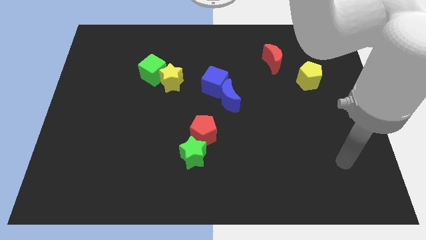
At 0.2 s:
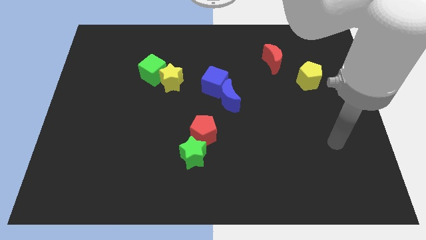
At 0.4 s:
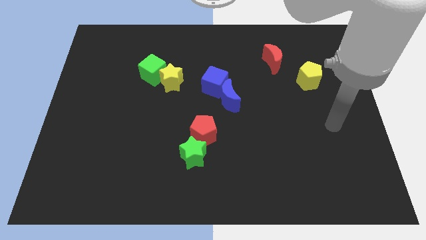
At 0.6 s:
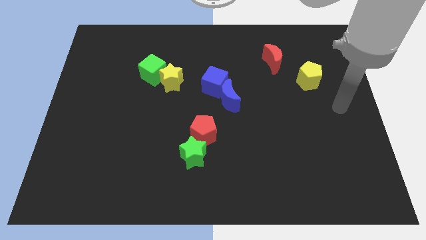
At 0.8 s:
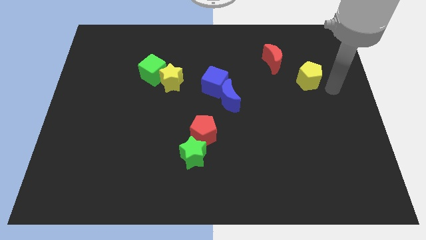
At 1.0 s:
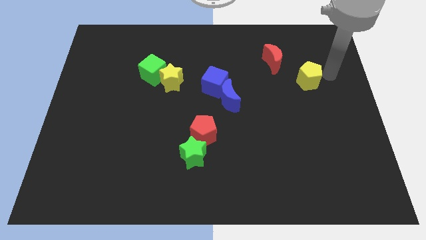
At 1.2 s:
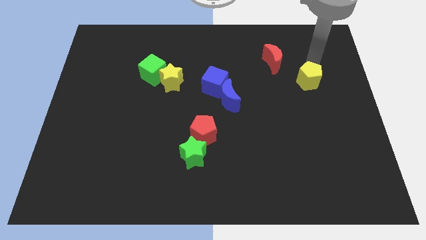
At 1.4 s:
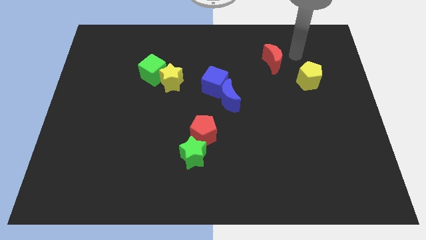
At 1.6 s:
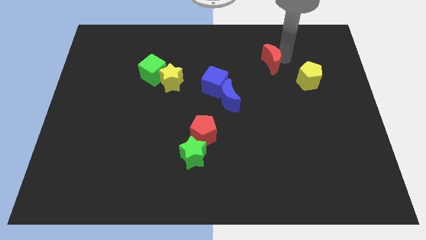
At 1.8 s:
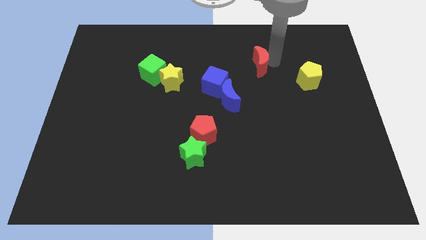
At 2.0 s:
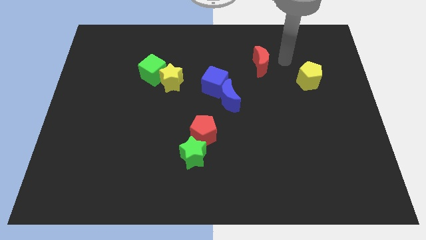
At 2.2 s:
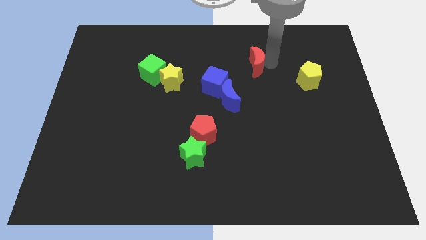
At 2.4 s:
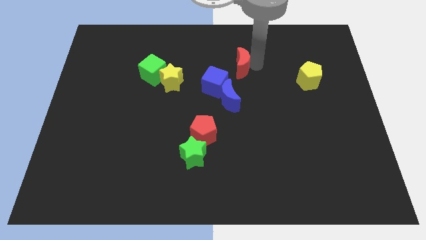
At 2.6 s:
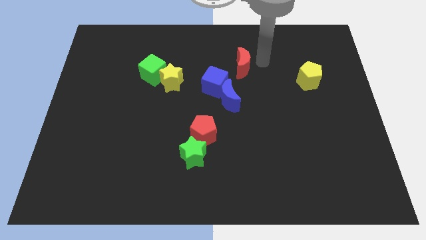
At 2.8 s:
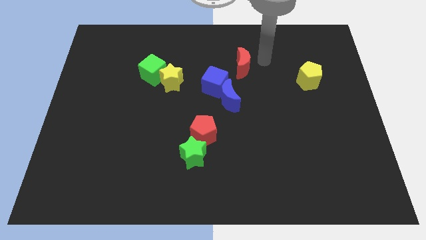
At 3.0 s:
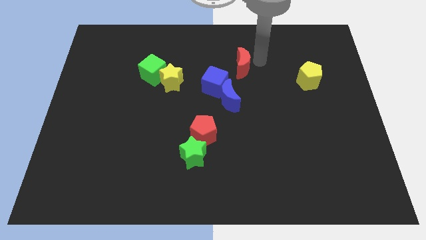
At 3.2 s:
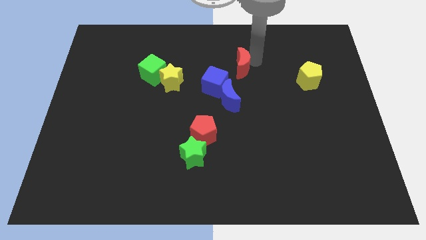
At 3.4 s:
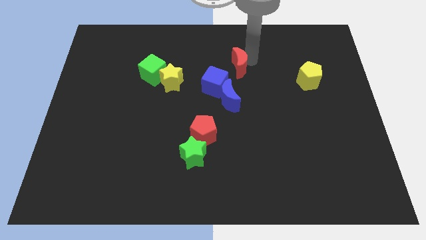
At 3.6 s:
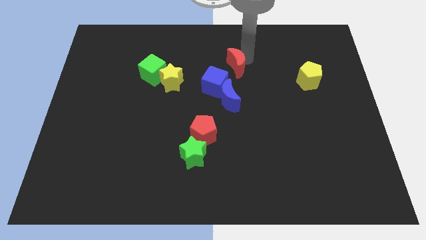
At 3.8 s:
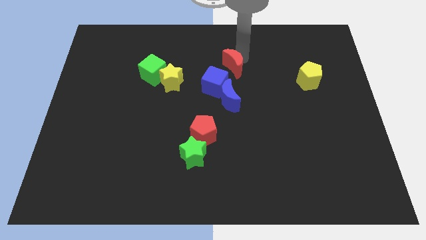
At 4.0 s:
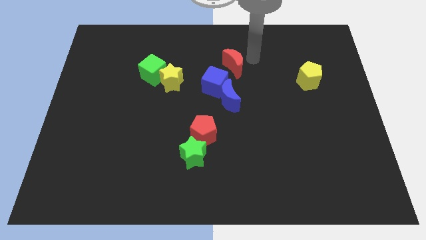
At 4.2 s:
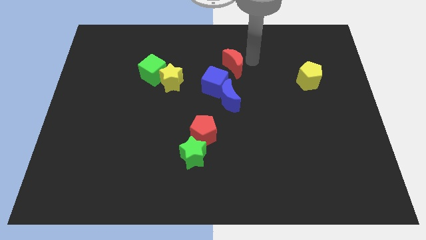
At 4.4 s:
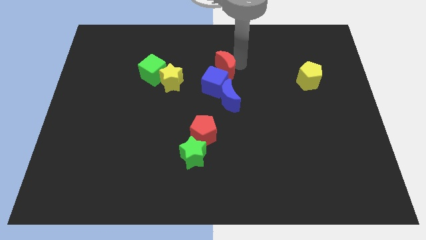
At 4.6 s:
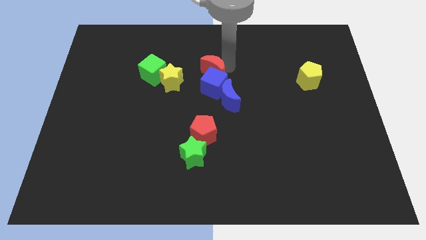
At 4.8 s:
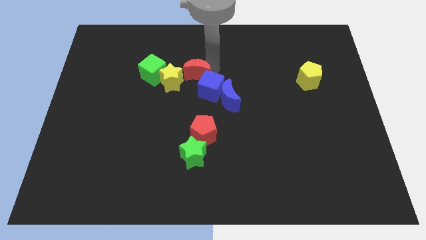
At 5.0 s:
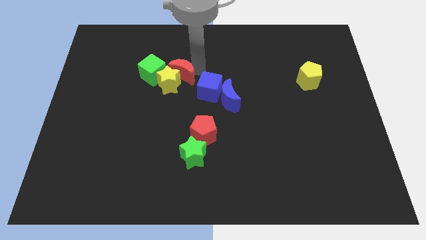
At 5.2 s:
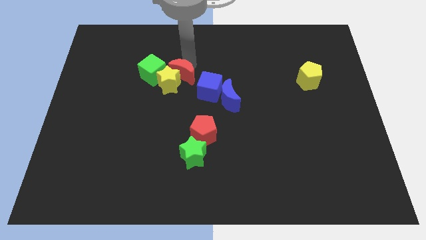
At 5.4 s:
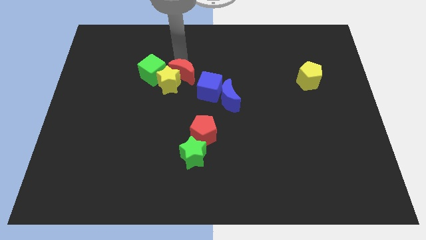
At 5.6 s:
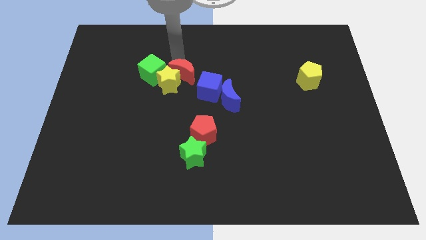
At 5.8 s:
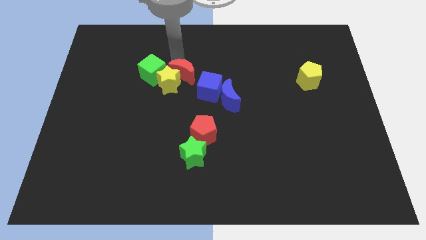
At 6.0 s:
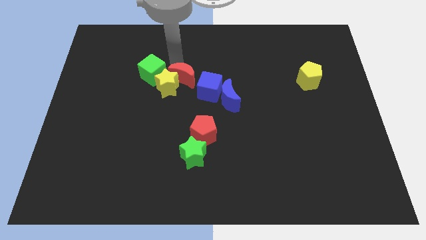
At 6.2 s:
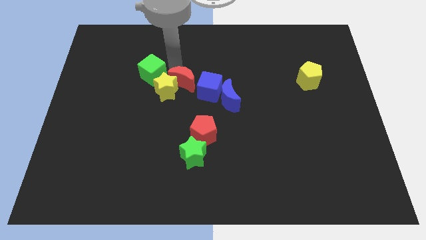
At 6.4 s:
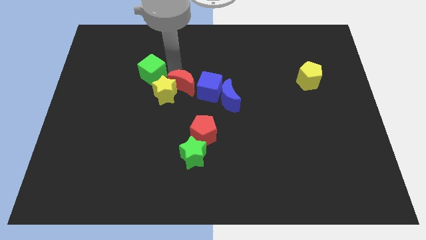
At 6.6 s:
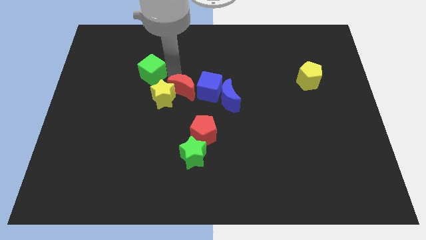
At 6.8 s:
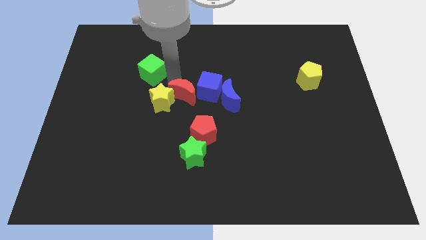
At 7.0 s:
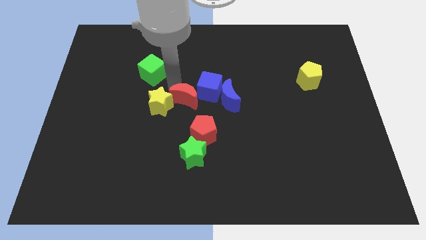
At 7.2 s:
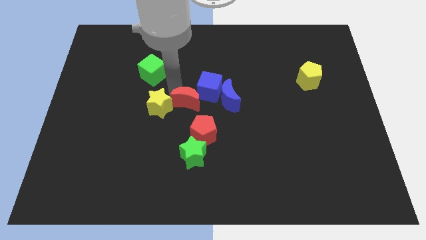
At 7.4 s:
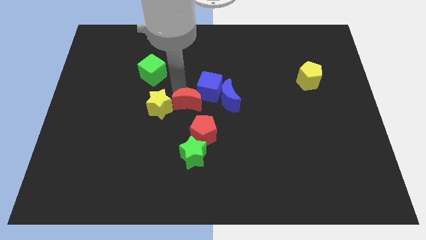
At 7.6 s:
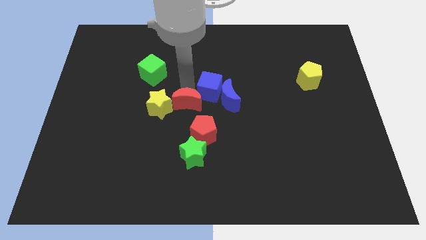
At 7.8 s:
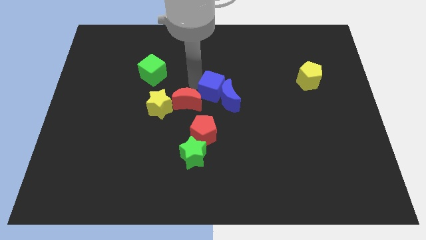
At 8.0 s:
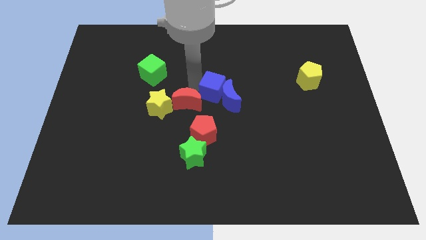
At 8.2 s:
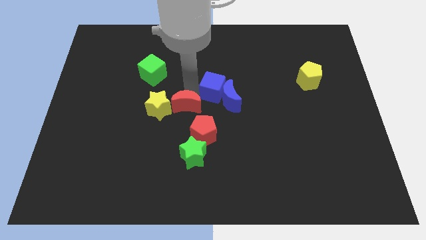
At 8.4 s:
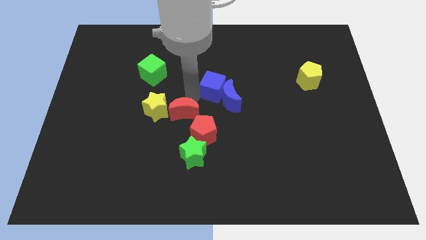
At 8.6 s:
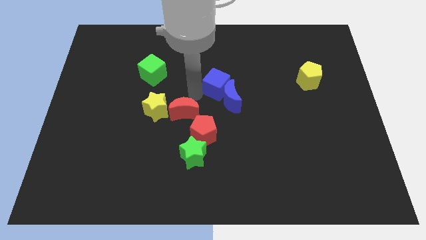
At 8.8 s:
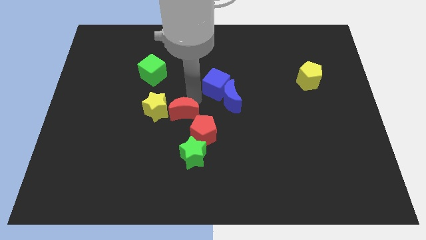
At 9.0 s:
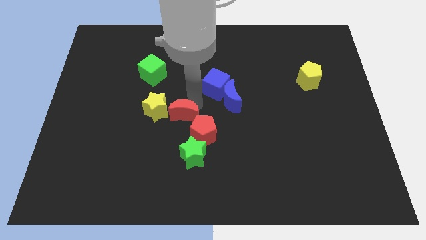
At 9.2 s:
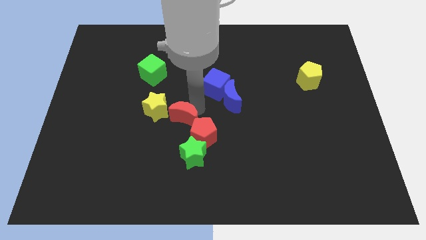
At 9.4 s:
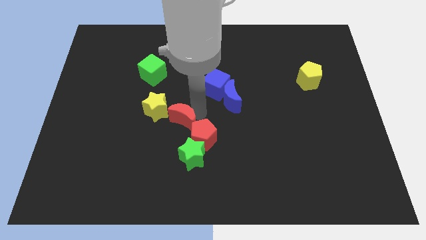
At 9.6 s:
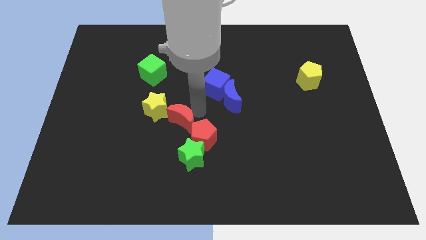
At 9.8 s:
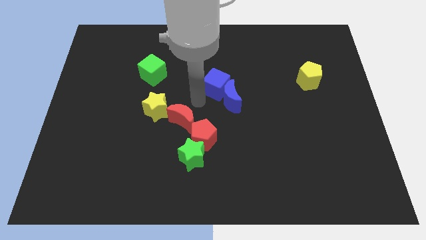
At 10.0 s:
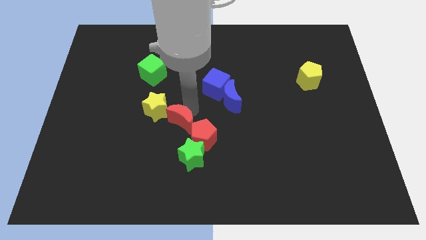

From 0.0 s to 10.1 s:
push the red moon to the top left side of the green star

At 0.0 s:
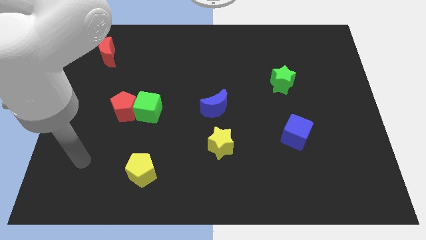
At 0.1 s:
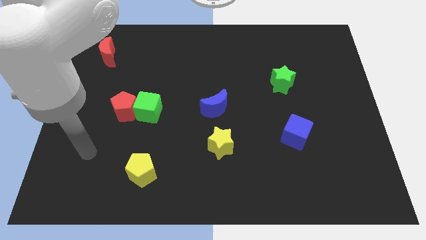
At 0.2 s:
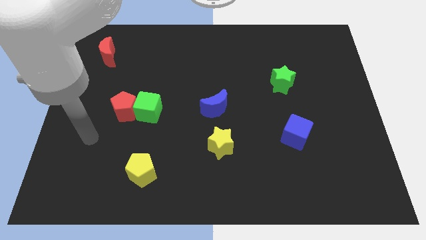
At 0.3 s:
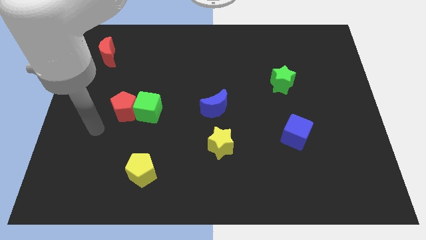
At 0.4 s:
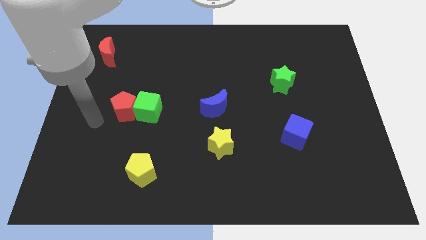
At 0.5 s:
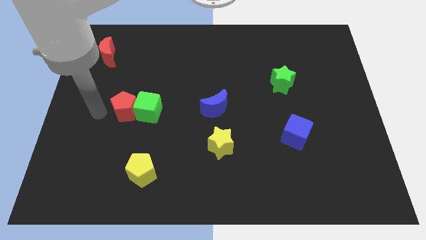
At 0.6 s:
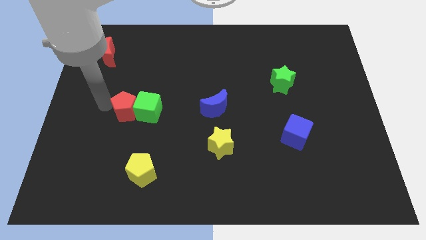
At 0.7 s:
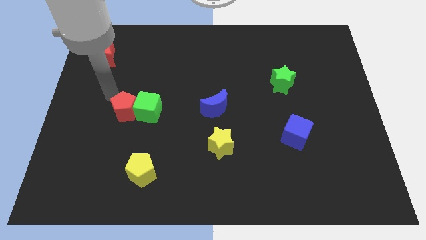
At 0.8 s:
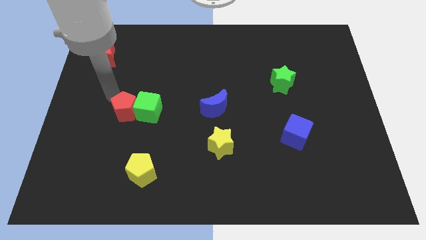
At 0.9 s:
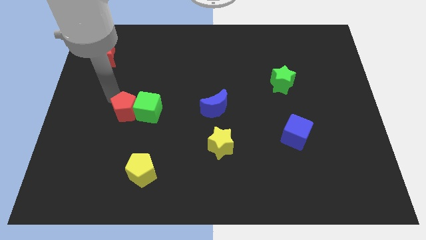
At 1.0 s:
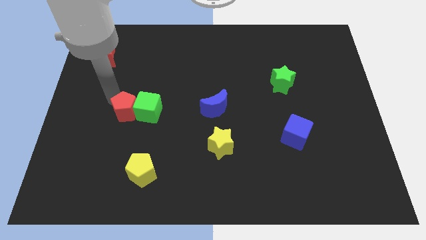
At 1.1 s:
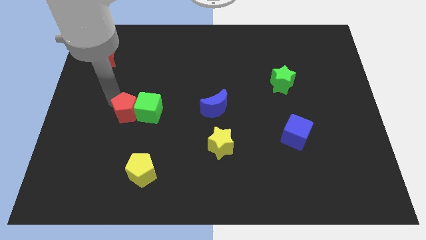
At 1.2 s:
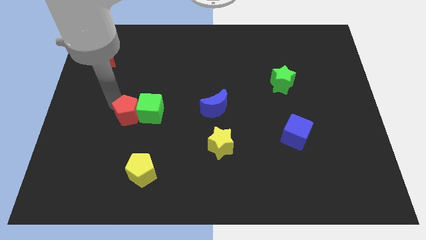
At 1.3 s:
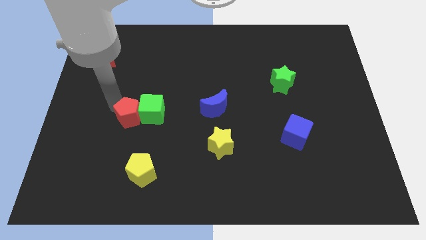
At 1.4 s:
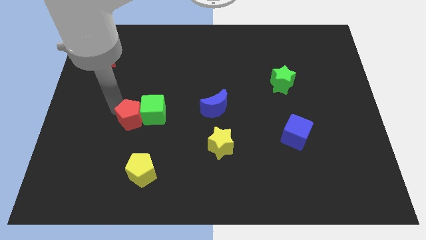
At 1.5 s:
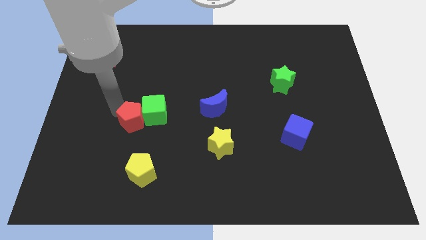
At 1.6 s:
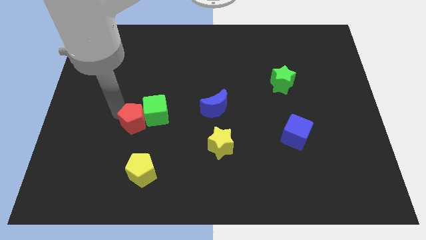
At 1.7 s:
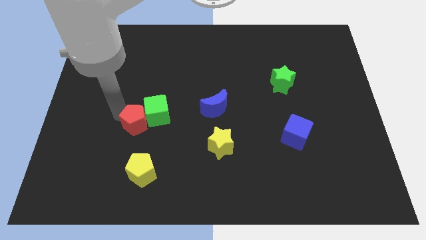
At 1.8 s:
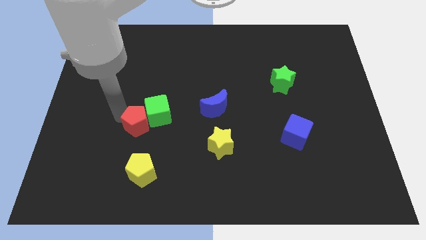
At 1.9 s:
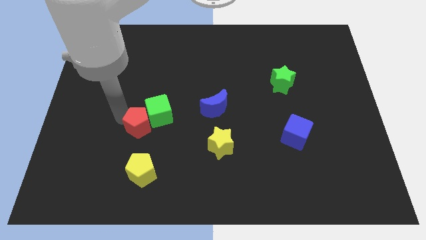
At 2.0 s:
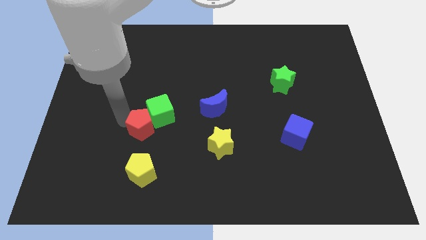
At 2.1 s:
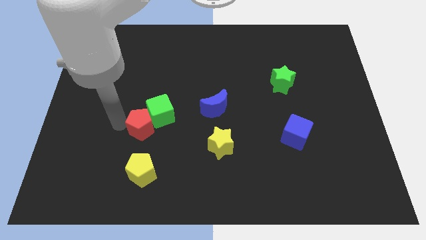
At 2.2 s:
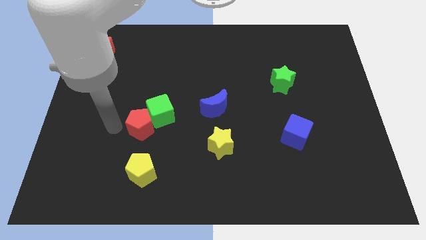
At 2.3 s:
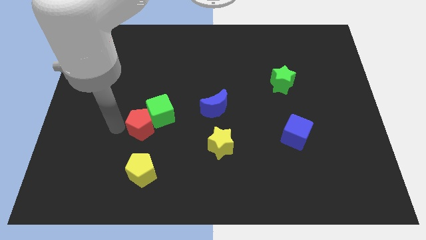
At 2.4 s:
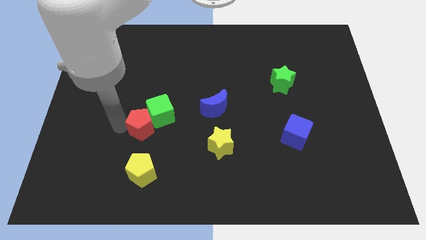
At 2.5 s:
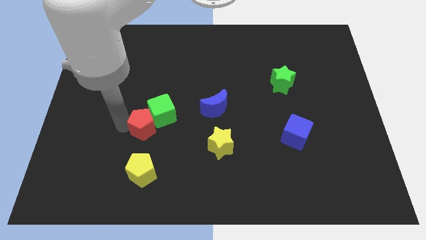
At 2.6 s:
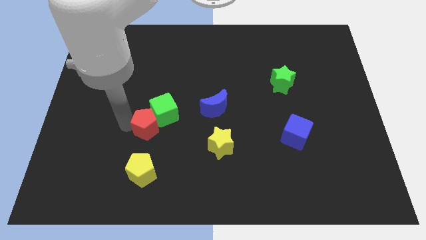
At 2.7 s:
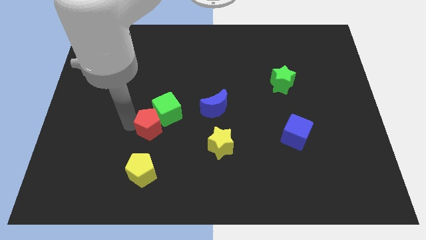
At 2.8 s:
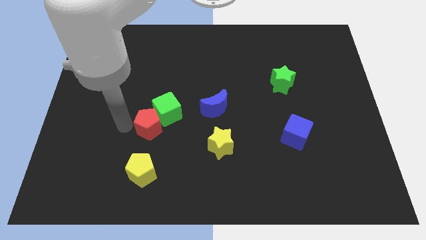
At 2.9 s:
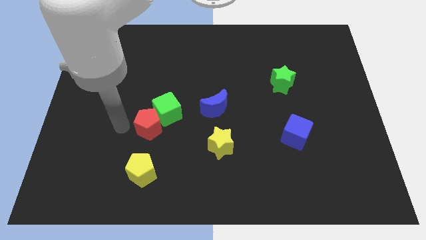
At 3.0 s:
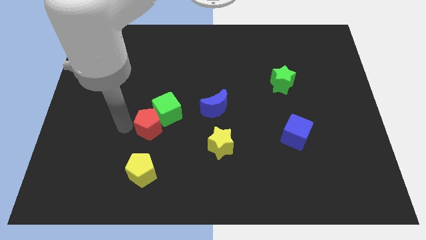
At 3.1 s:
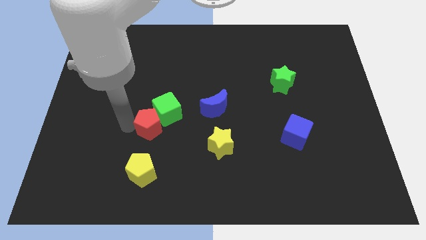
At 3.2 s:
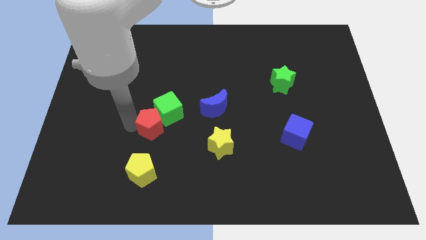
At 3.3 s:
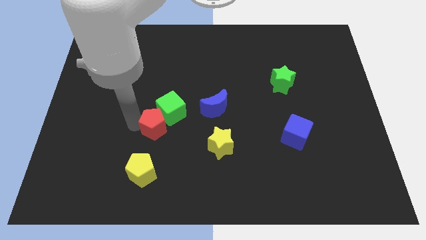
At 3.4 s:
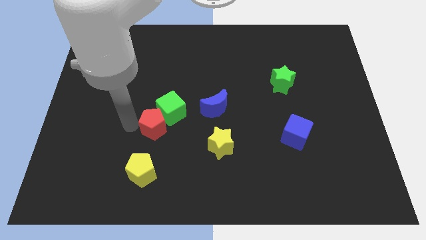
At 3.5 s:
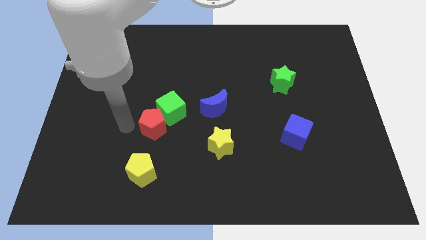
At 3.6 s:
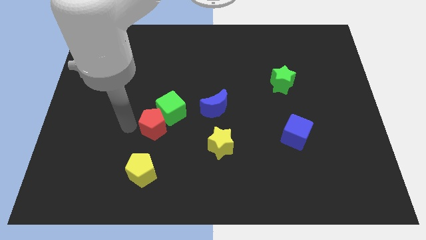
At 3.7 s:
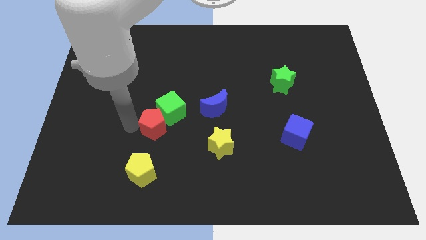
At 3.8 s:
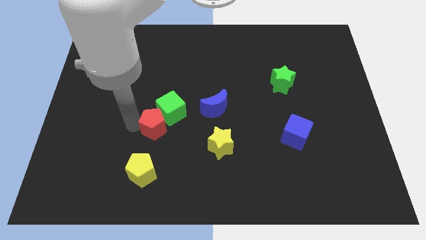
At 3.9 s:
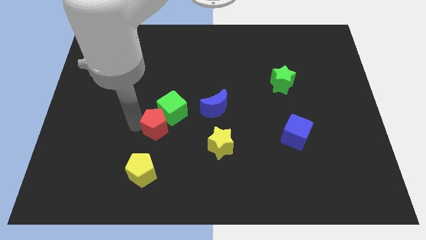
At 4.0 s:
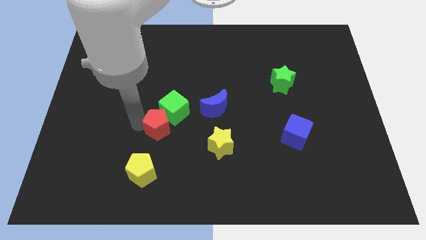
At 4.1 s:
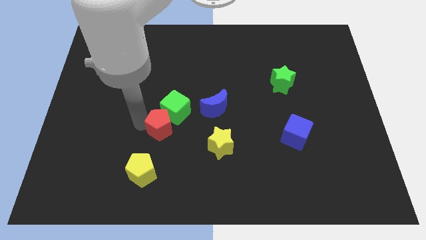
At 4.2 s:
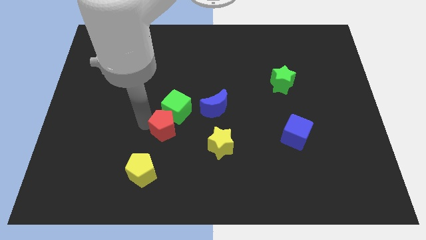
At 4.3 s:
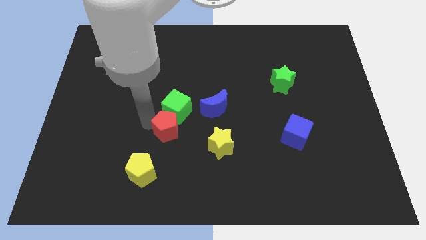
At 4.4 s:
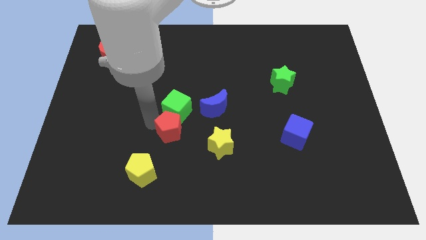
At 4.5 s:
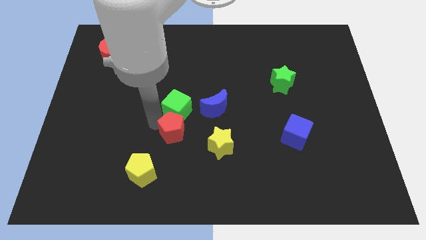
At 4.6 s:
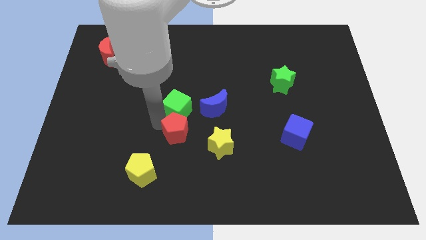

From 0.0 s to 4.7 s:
put the red pentagon to the top left of the yellow star
